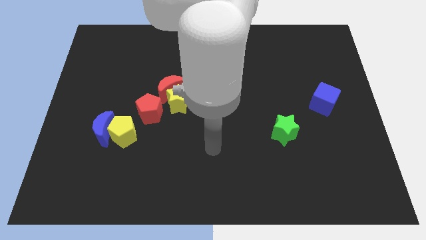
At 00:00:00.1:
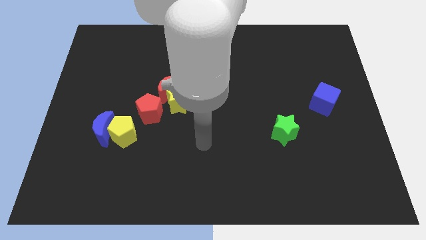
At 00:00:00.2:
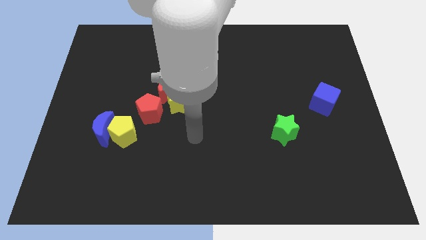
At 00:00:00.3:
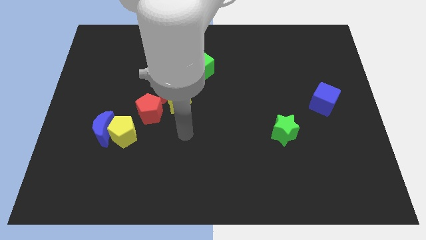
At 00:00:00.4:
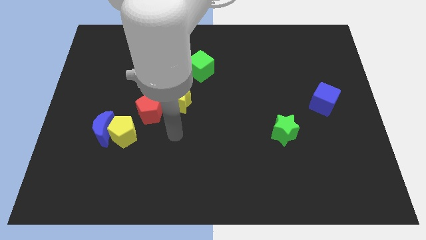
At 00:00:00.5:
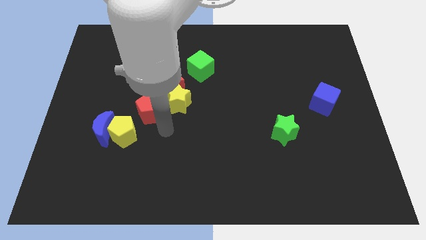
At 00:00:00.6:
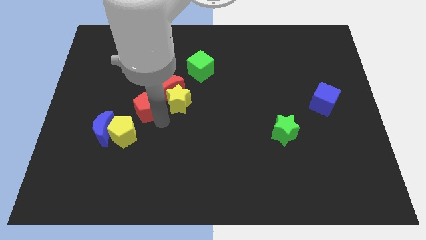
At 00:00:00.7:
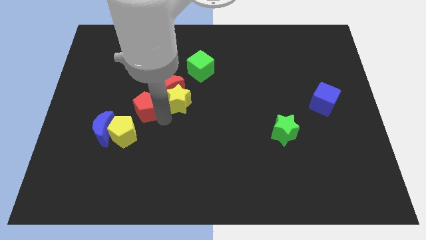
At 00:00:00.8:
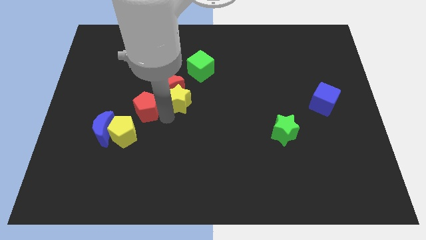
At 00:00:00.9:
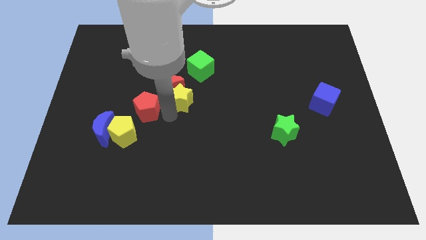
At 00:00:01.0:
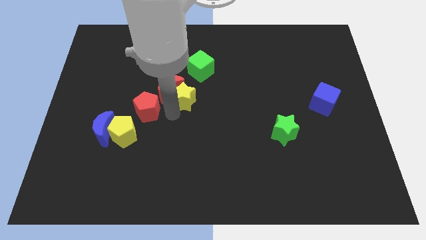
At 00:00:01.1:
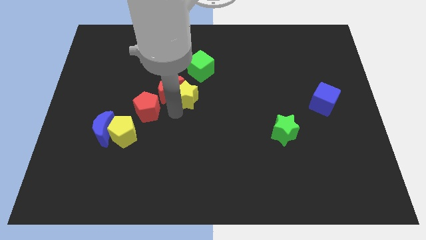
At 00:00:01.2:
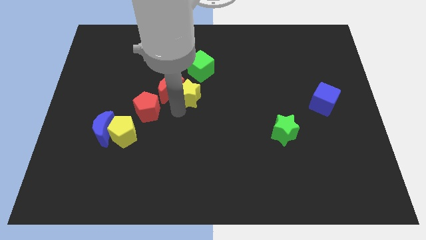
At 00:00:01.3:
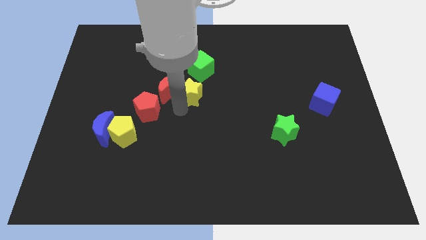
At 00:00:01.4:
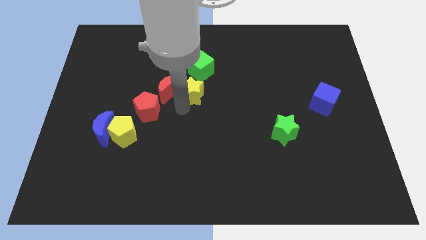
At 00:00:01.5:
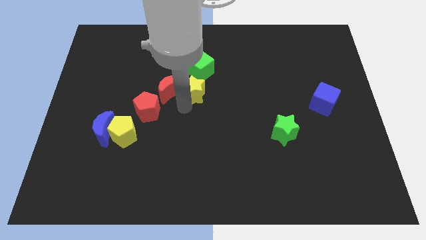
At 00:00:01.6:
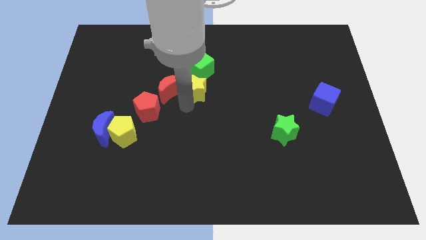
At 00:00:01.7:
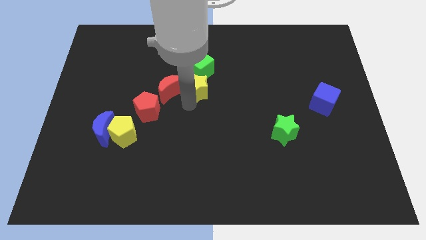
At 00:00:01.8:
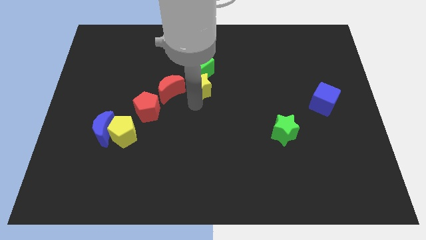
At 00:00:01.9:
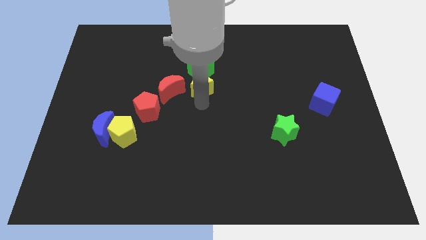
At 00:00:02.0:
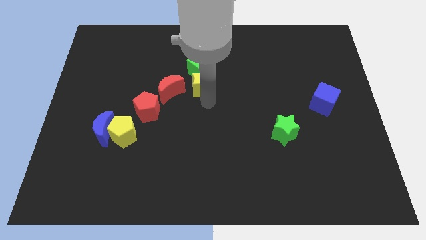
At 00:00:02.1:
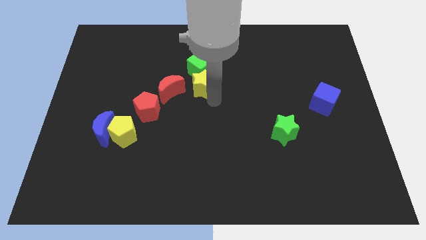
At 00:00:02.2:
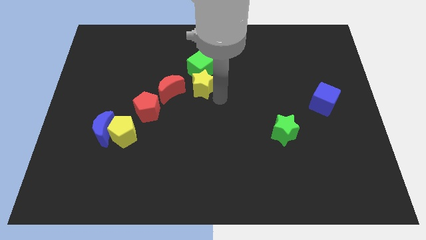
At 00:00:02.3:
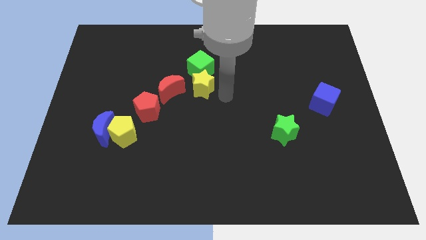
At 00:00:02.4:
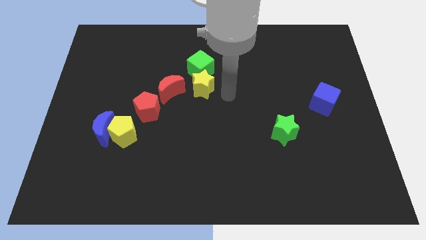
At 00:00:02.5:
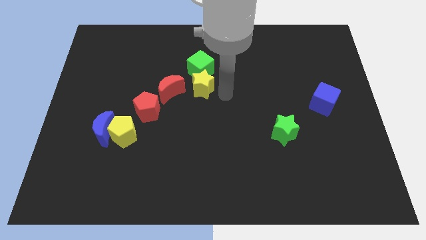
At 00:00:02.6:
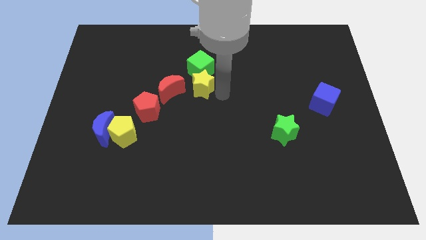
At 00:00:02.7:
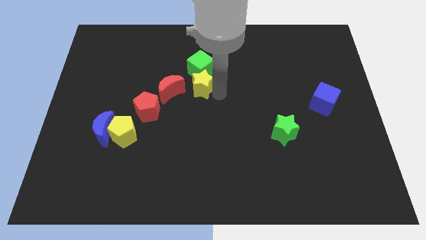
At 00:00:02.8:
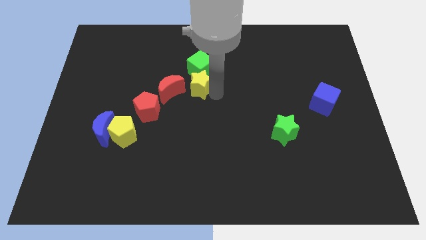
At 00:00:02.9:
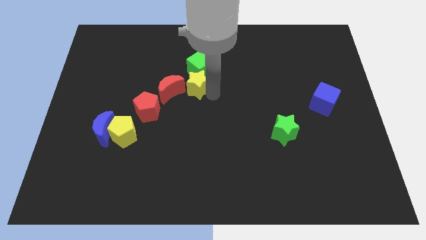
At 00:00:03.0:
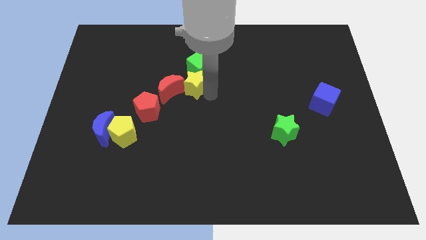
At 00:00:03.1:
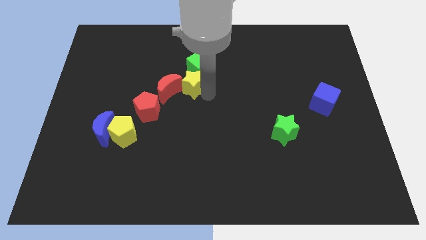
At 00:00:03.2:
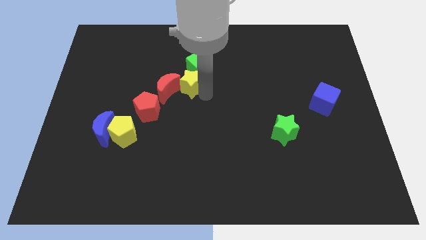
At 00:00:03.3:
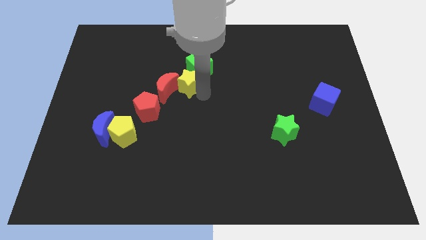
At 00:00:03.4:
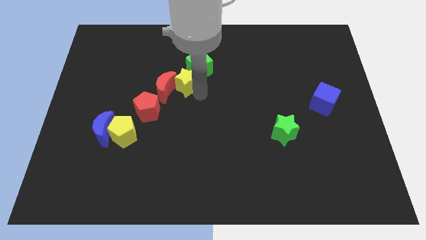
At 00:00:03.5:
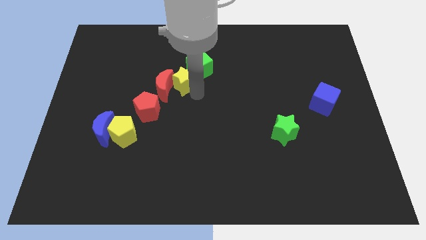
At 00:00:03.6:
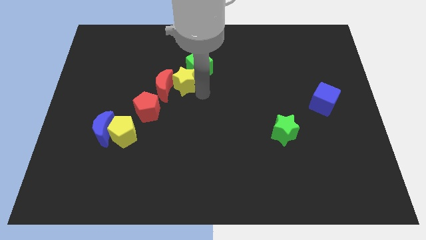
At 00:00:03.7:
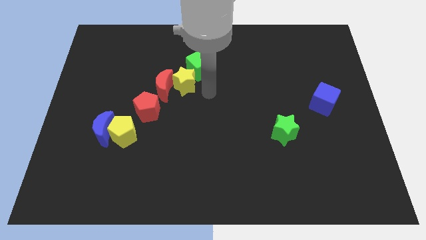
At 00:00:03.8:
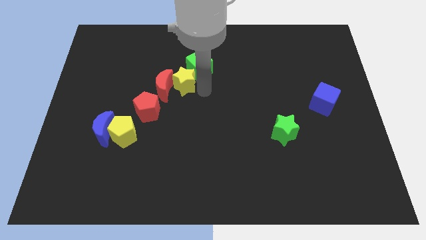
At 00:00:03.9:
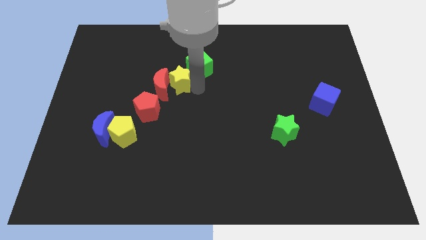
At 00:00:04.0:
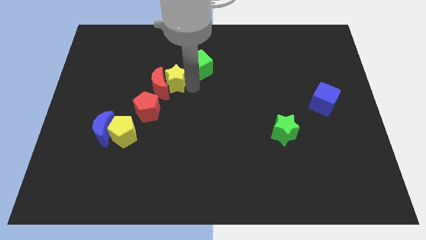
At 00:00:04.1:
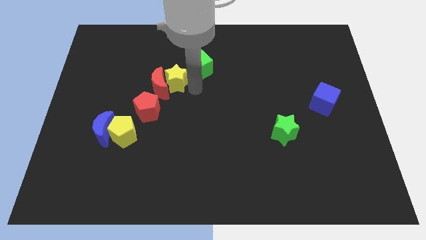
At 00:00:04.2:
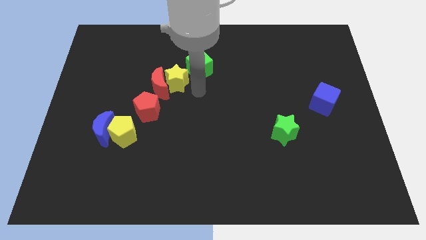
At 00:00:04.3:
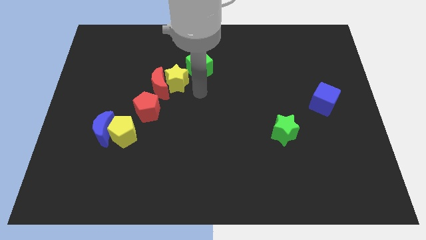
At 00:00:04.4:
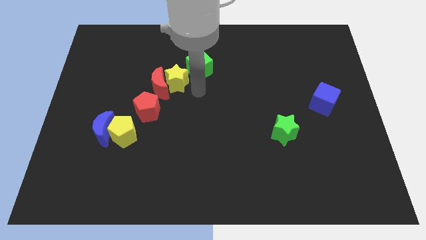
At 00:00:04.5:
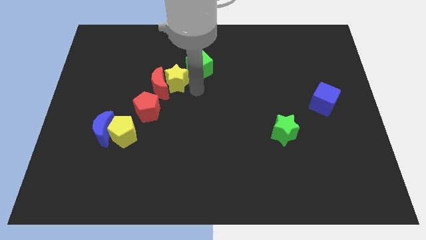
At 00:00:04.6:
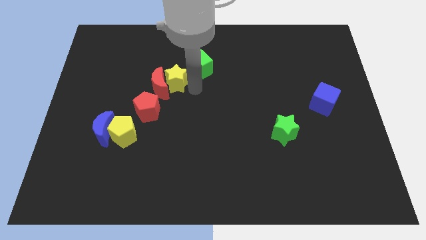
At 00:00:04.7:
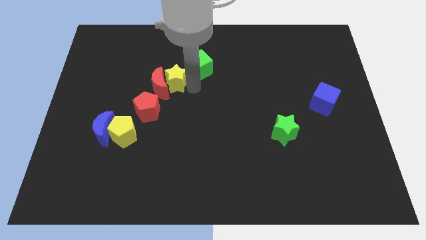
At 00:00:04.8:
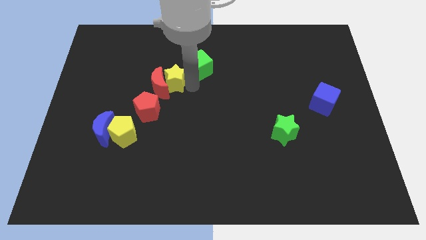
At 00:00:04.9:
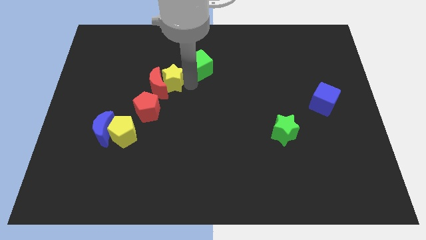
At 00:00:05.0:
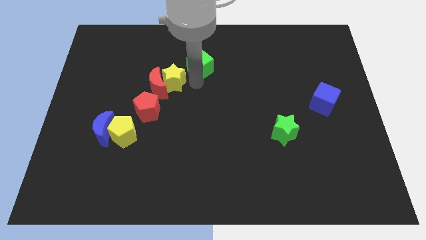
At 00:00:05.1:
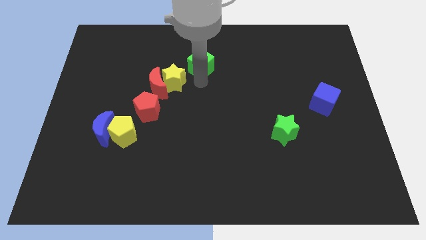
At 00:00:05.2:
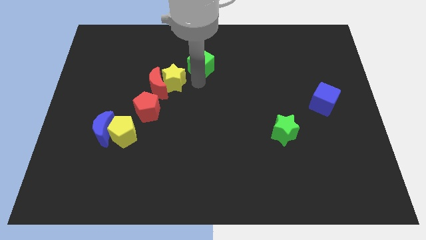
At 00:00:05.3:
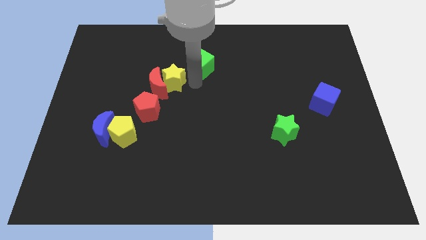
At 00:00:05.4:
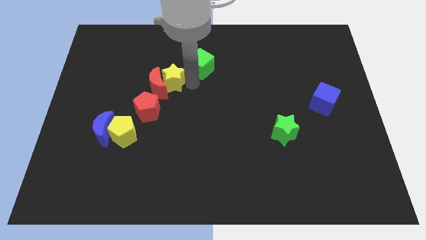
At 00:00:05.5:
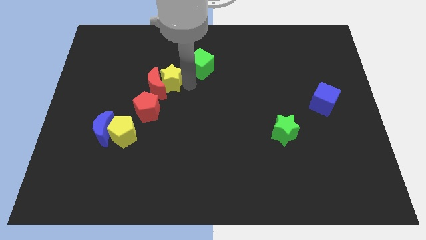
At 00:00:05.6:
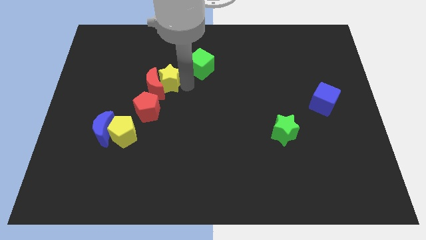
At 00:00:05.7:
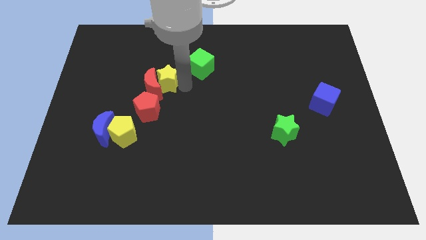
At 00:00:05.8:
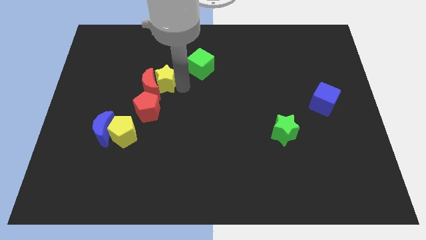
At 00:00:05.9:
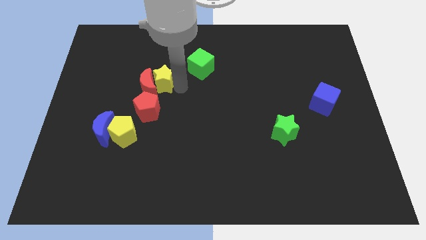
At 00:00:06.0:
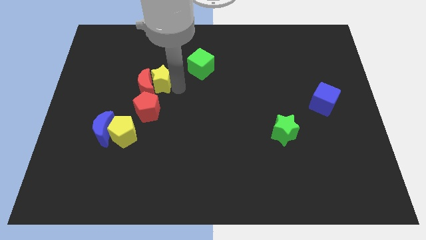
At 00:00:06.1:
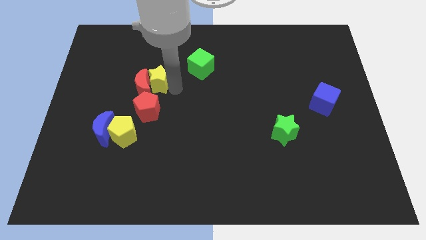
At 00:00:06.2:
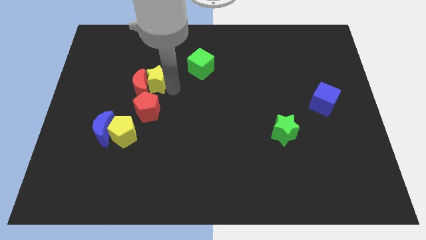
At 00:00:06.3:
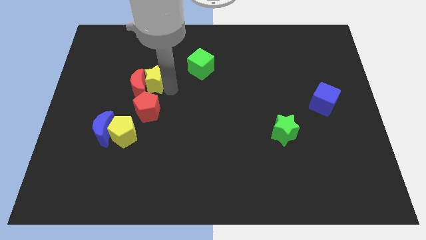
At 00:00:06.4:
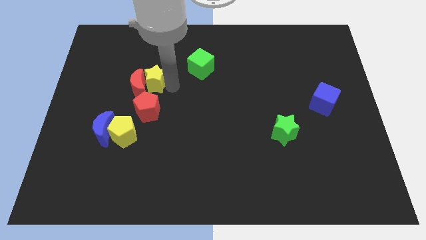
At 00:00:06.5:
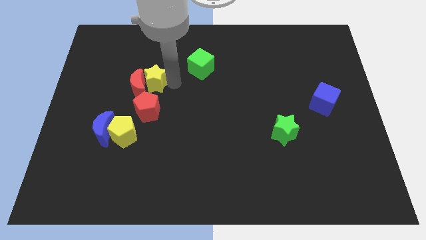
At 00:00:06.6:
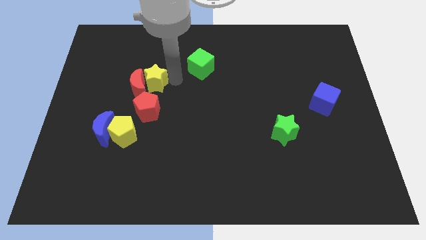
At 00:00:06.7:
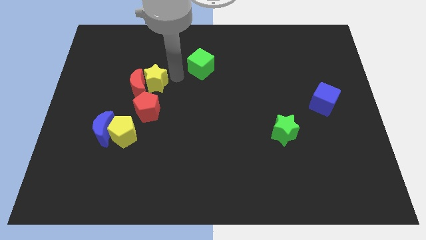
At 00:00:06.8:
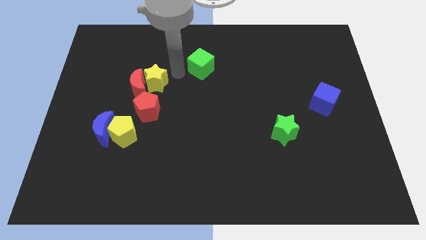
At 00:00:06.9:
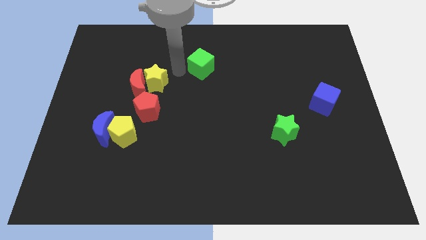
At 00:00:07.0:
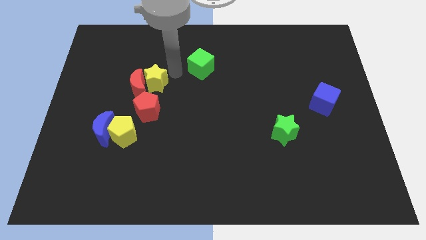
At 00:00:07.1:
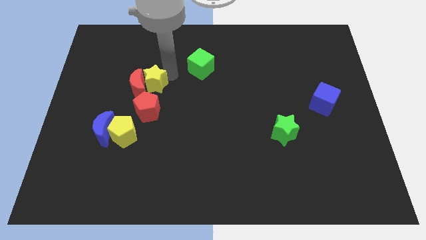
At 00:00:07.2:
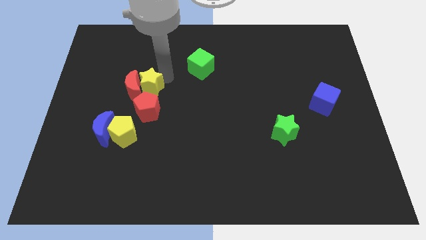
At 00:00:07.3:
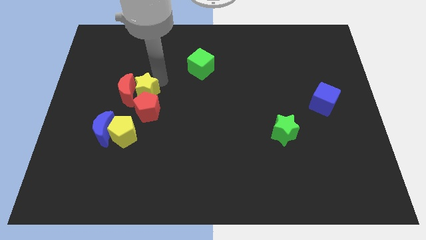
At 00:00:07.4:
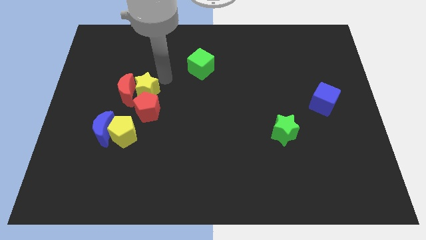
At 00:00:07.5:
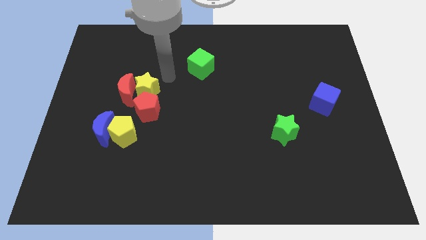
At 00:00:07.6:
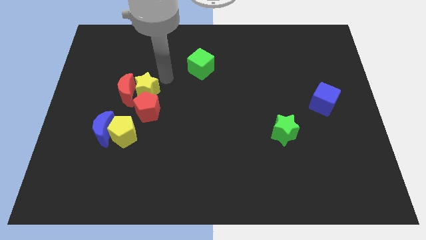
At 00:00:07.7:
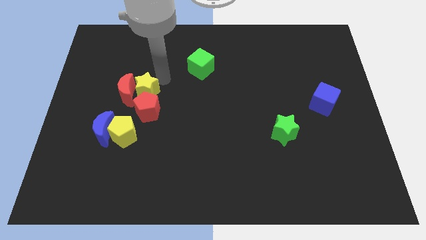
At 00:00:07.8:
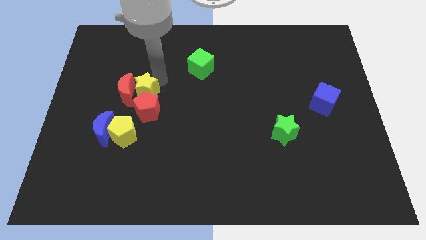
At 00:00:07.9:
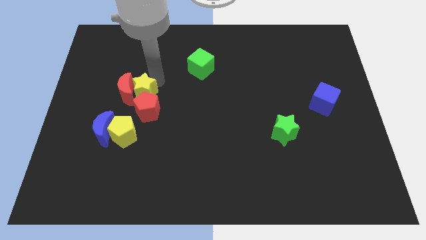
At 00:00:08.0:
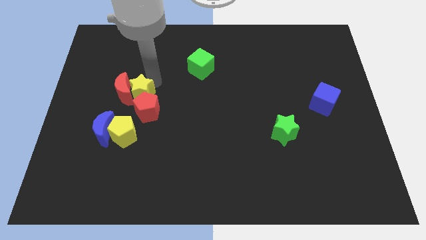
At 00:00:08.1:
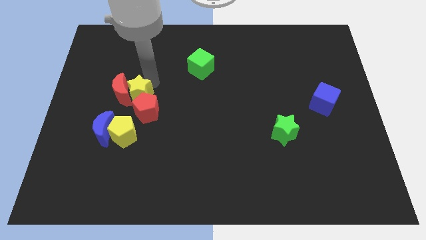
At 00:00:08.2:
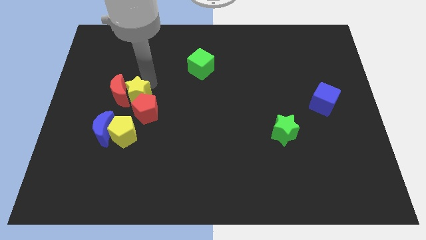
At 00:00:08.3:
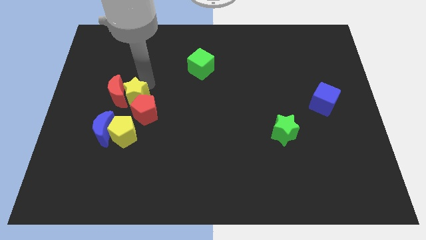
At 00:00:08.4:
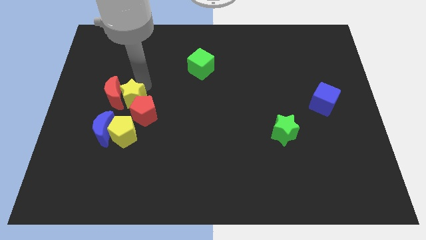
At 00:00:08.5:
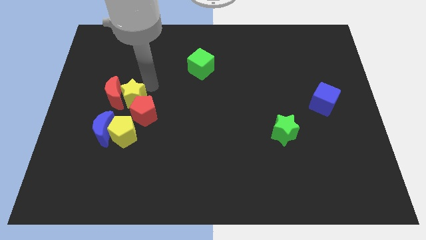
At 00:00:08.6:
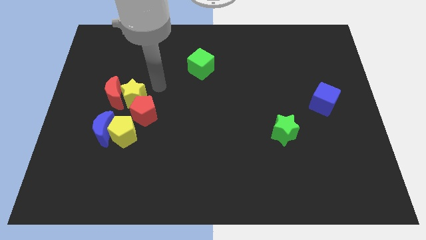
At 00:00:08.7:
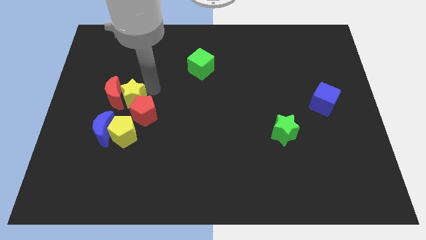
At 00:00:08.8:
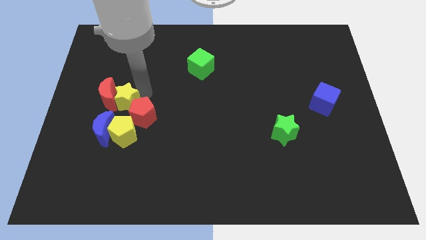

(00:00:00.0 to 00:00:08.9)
move the yellow star to the left side of the red pentagon
